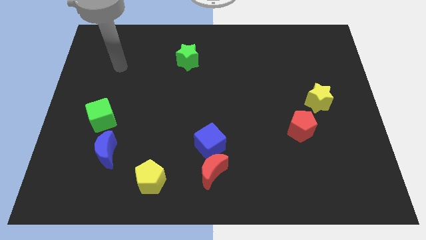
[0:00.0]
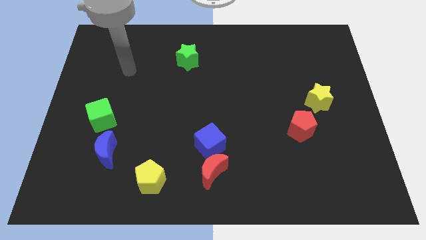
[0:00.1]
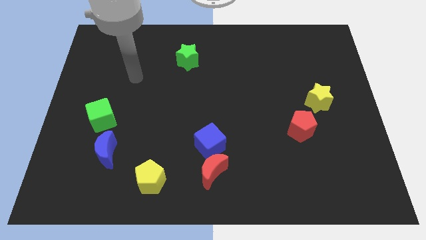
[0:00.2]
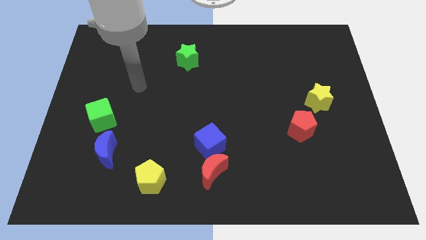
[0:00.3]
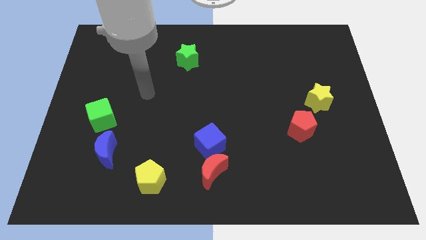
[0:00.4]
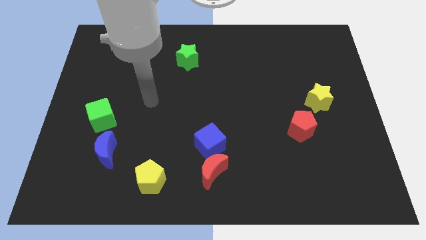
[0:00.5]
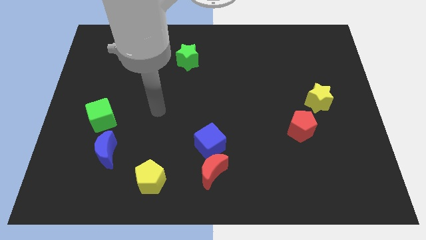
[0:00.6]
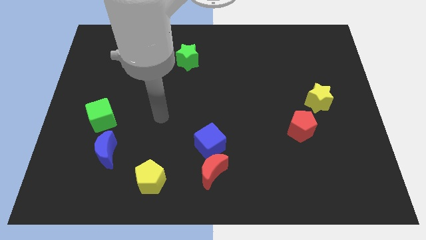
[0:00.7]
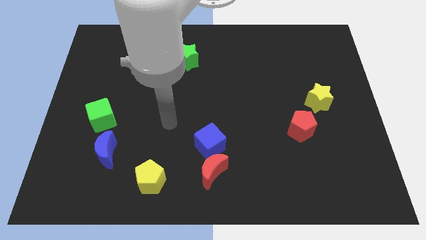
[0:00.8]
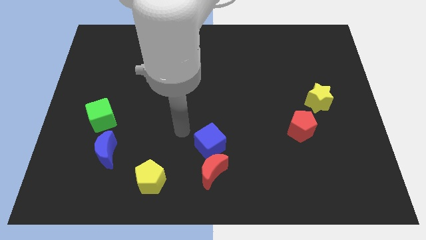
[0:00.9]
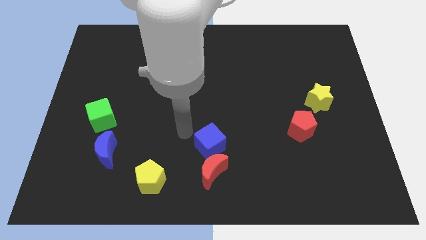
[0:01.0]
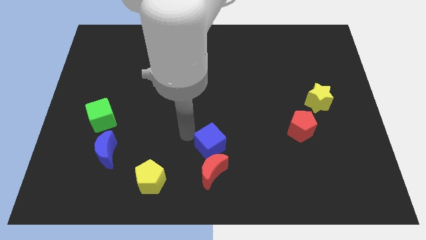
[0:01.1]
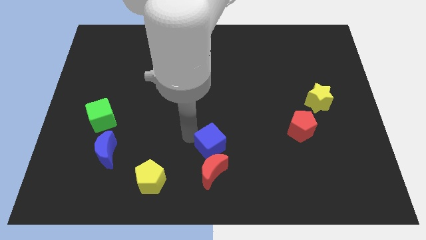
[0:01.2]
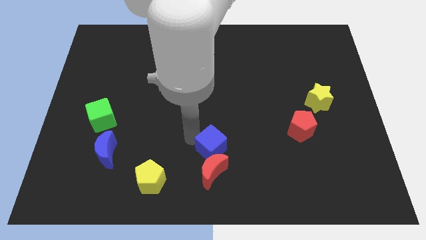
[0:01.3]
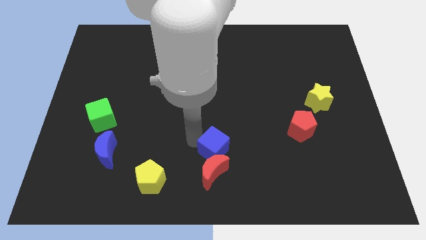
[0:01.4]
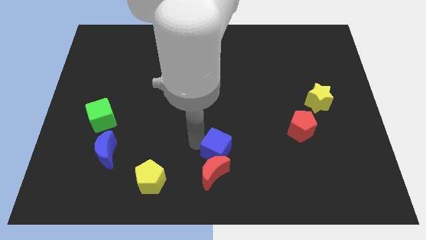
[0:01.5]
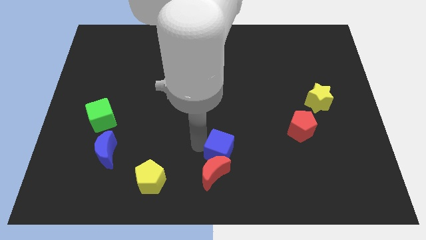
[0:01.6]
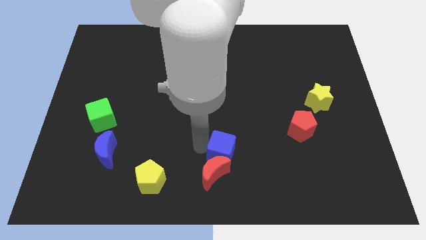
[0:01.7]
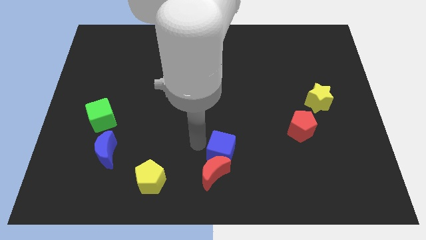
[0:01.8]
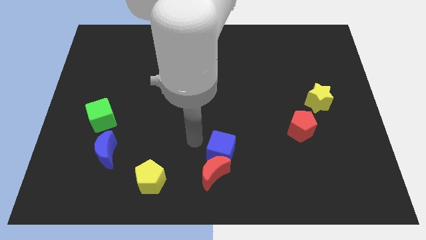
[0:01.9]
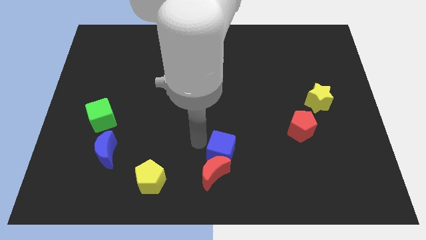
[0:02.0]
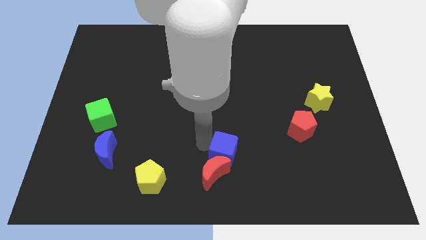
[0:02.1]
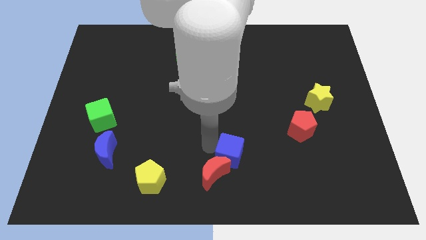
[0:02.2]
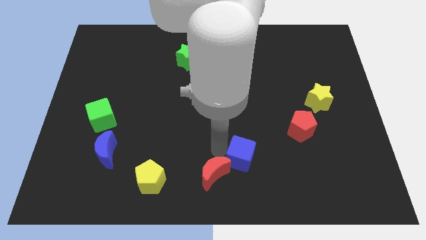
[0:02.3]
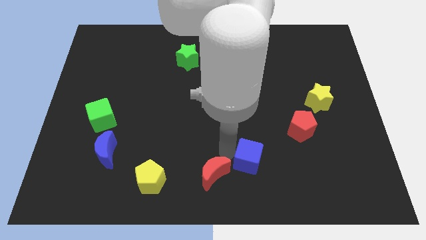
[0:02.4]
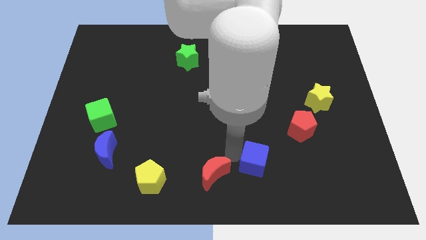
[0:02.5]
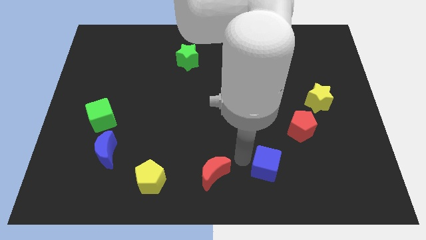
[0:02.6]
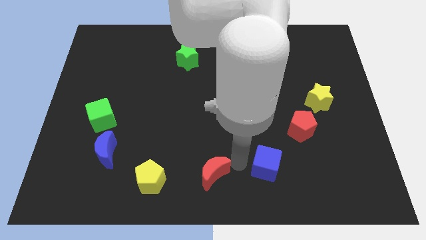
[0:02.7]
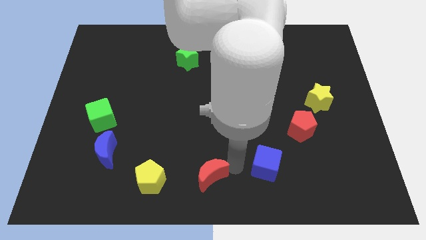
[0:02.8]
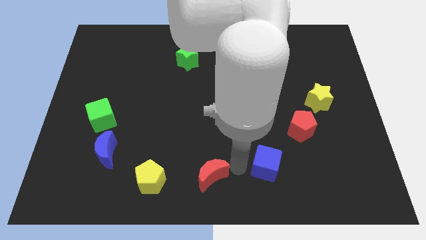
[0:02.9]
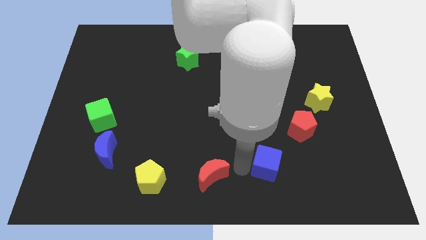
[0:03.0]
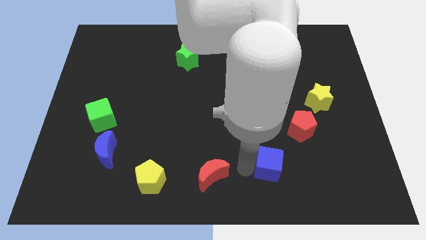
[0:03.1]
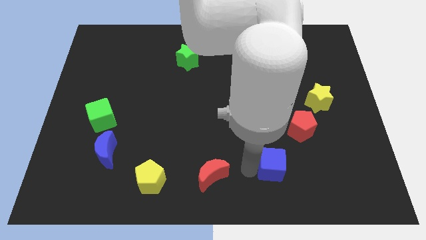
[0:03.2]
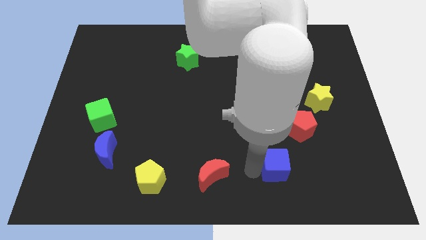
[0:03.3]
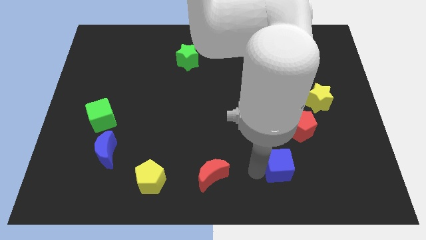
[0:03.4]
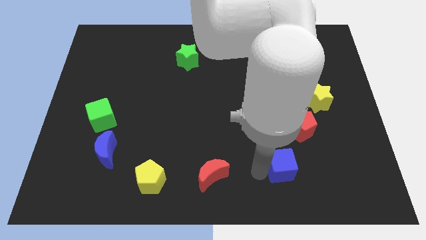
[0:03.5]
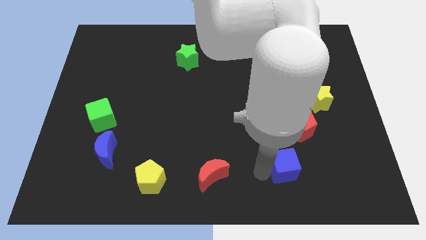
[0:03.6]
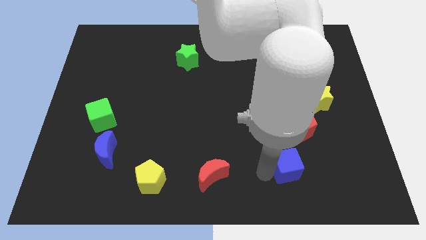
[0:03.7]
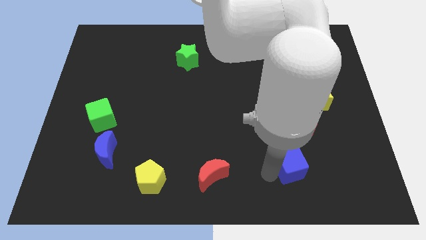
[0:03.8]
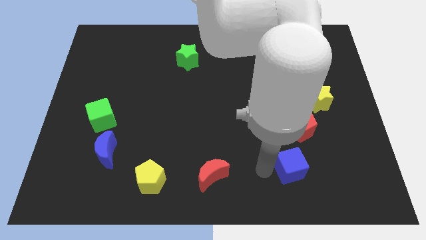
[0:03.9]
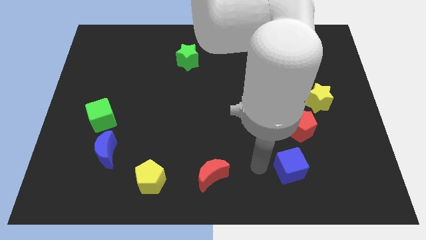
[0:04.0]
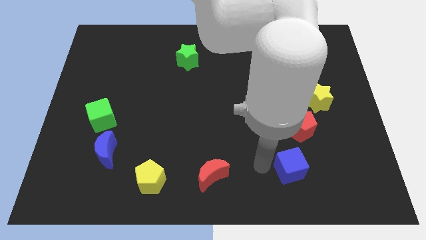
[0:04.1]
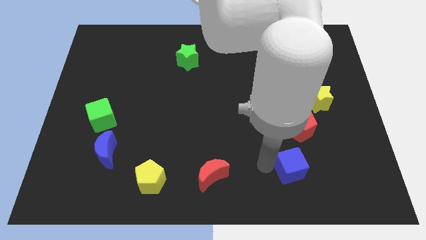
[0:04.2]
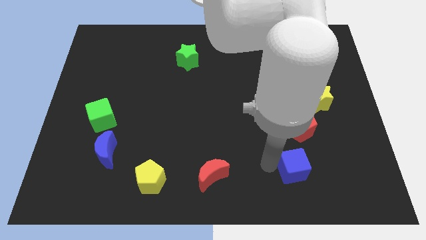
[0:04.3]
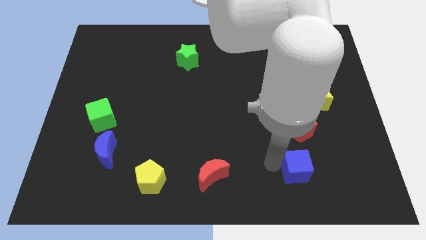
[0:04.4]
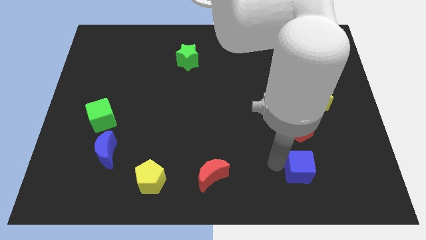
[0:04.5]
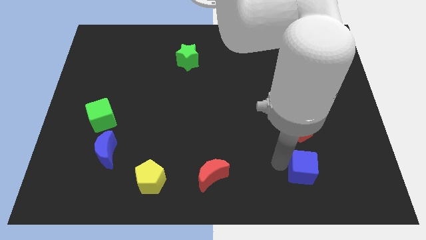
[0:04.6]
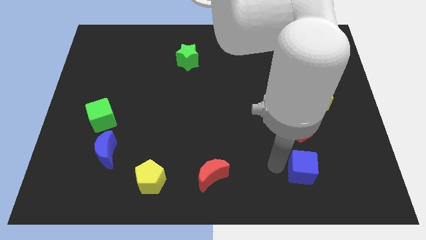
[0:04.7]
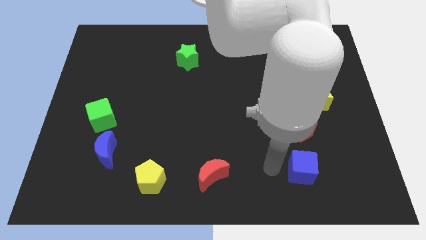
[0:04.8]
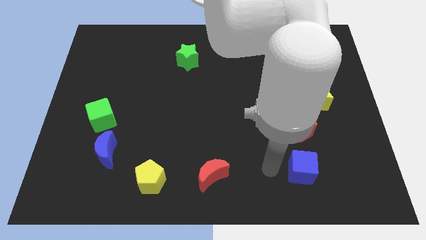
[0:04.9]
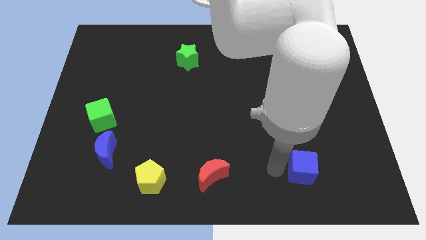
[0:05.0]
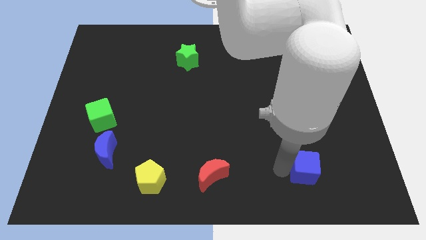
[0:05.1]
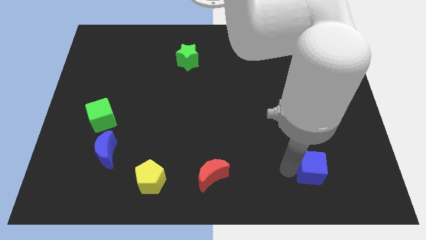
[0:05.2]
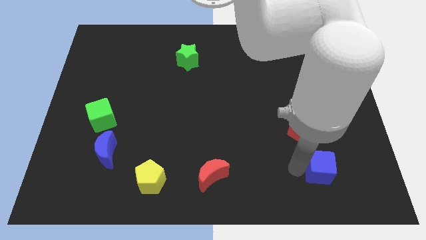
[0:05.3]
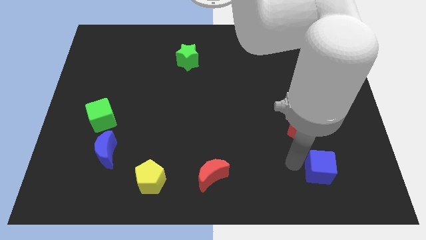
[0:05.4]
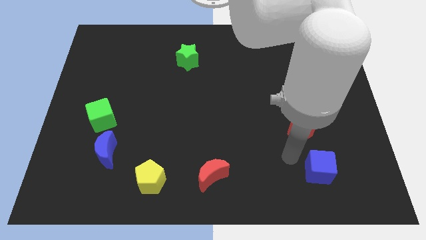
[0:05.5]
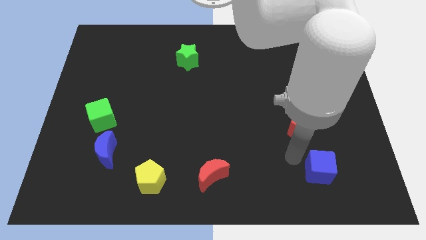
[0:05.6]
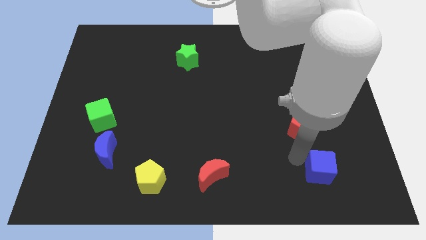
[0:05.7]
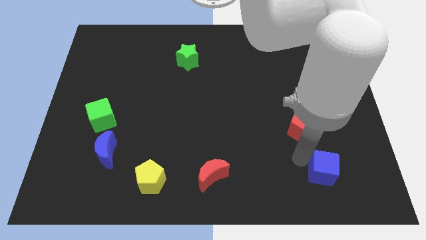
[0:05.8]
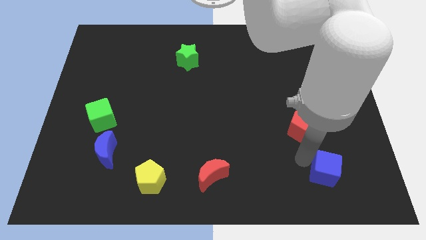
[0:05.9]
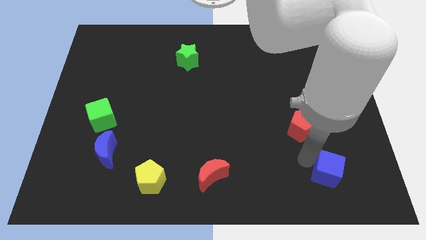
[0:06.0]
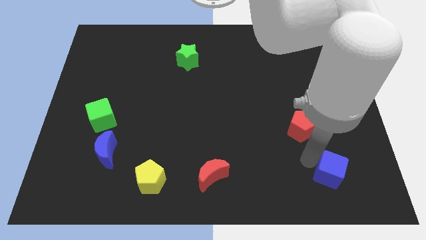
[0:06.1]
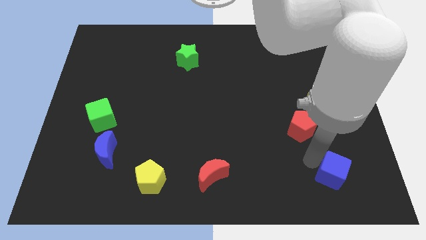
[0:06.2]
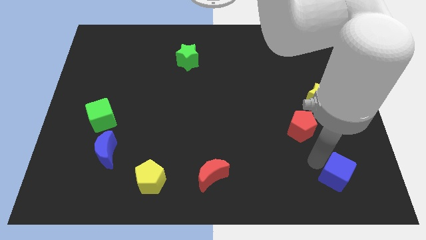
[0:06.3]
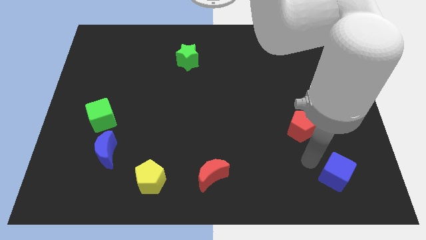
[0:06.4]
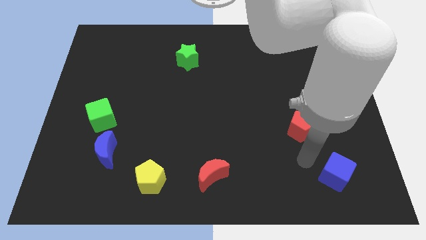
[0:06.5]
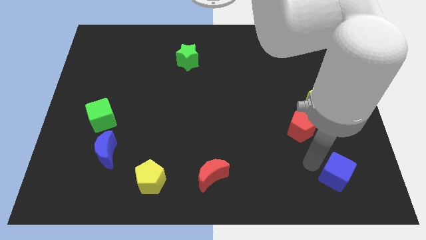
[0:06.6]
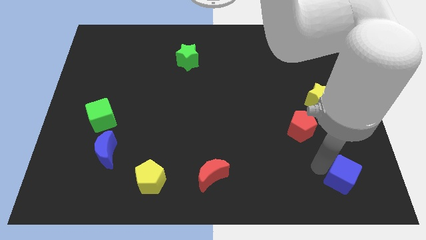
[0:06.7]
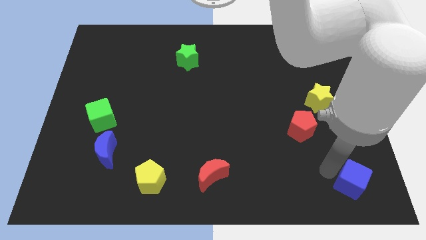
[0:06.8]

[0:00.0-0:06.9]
put the blue cube to the bottom right of the board
